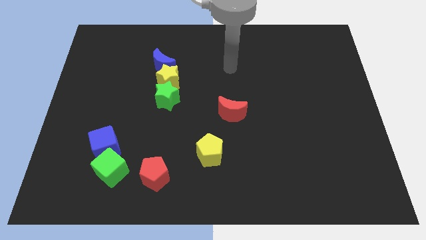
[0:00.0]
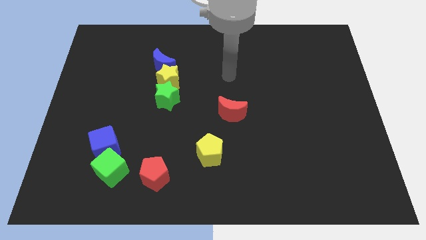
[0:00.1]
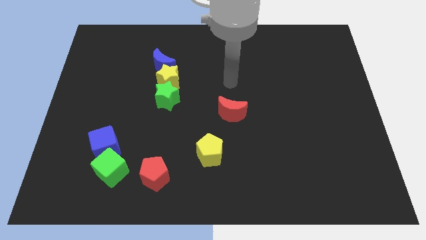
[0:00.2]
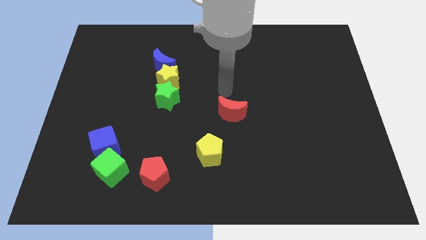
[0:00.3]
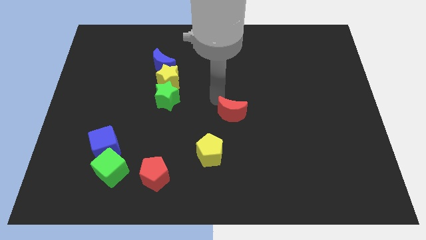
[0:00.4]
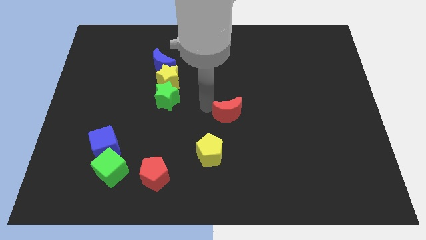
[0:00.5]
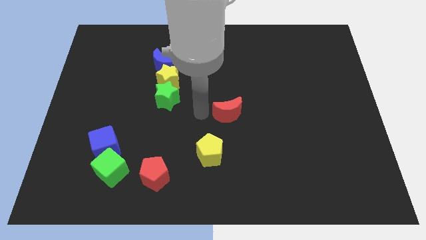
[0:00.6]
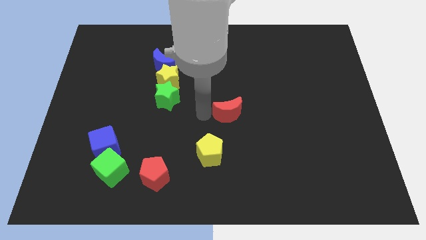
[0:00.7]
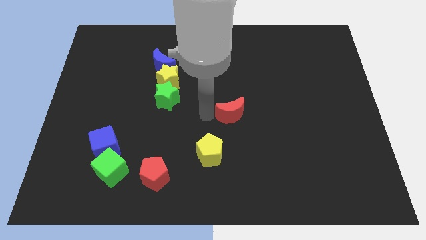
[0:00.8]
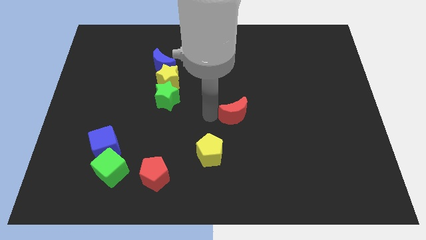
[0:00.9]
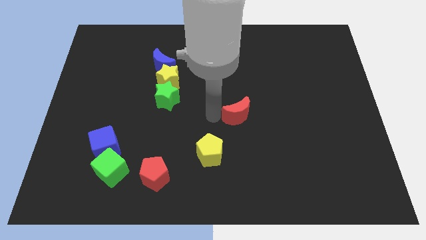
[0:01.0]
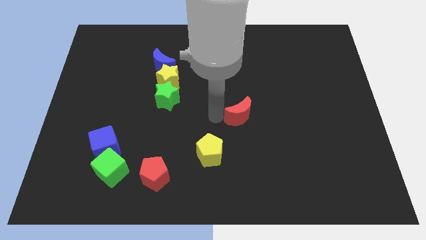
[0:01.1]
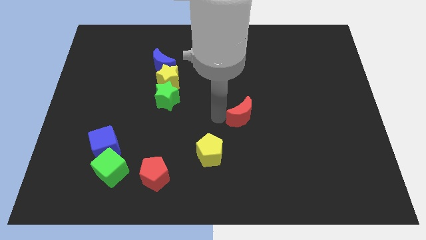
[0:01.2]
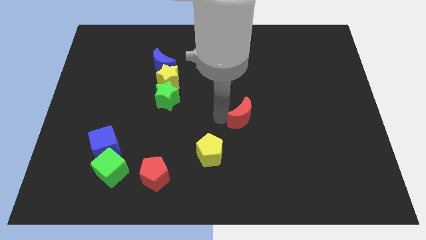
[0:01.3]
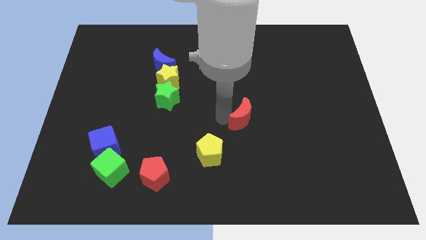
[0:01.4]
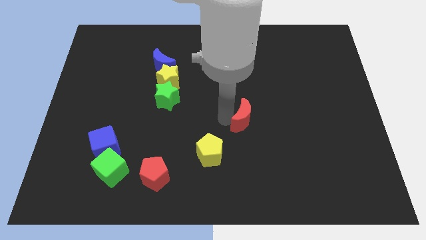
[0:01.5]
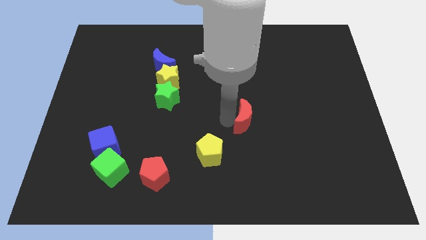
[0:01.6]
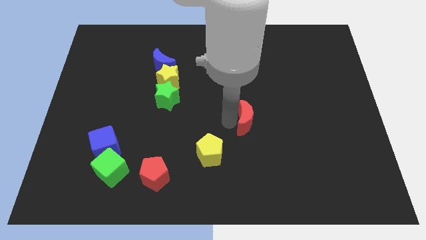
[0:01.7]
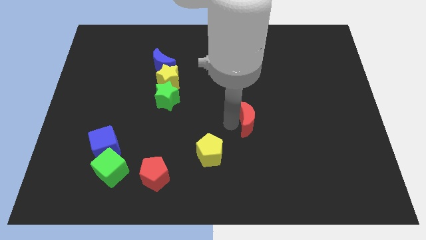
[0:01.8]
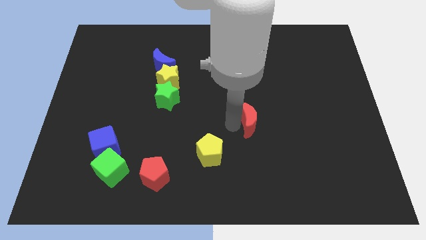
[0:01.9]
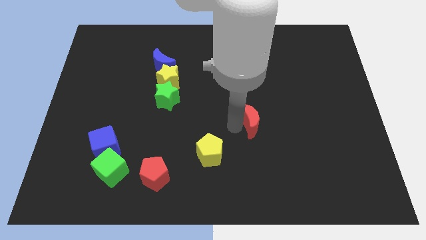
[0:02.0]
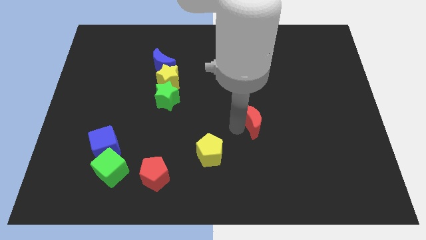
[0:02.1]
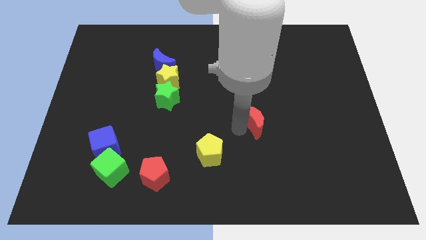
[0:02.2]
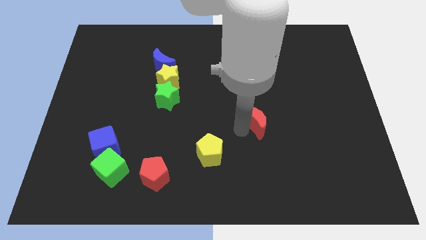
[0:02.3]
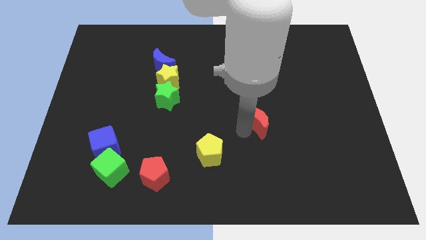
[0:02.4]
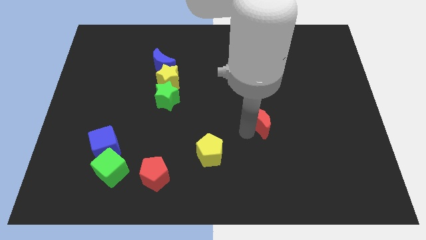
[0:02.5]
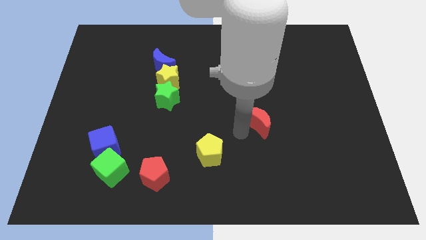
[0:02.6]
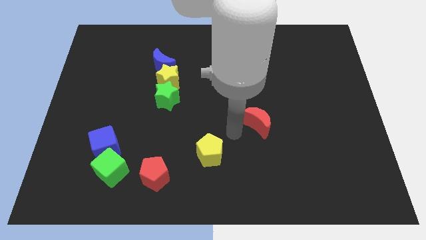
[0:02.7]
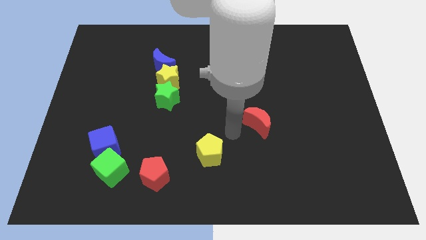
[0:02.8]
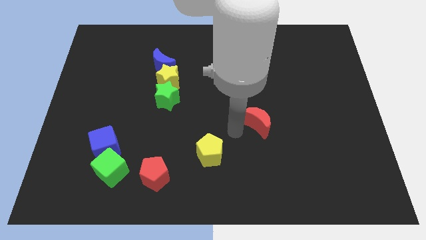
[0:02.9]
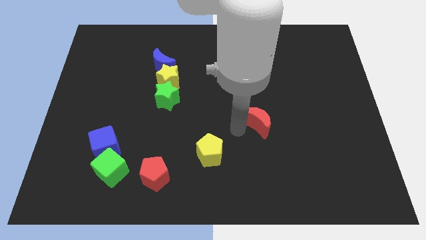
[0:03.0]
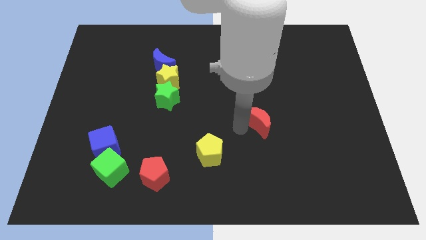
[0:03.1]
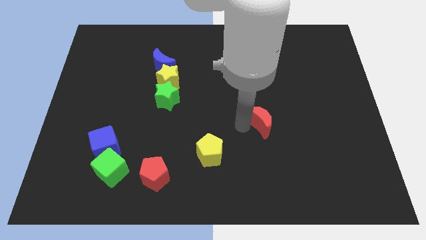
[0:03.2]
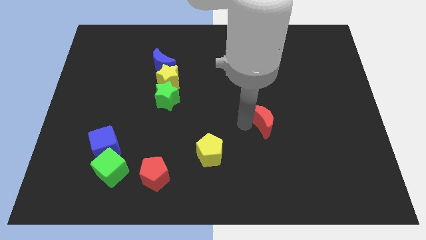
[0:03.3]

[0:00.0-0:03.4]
slightly move the red moon right

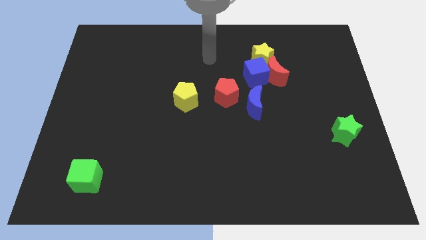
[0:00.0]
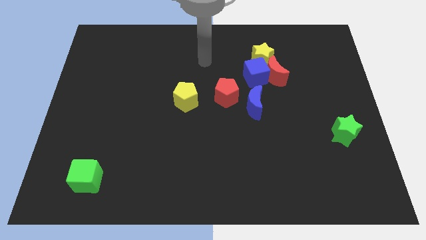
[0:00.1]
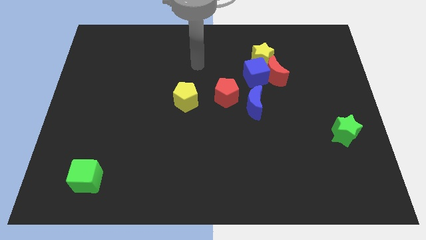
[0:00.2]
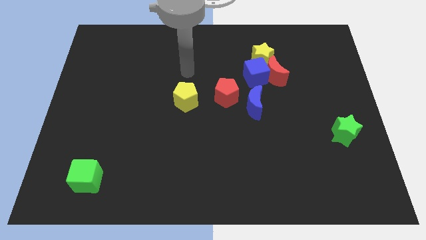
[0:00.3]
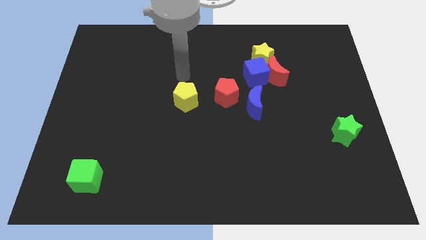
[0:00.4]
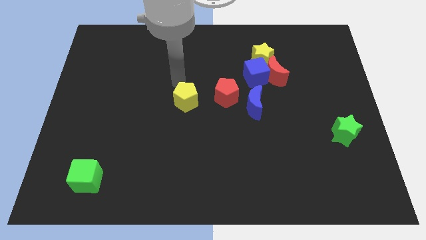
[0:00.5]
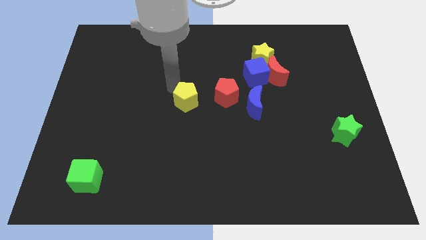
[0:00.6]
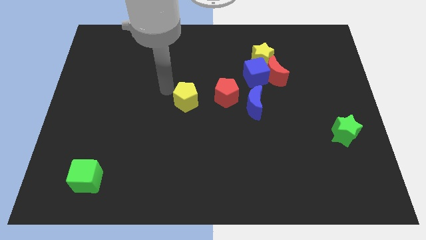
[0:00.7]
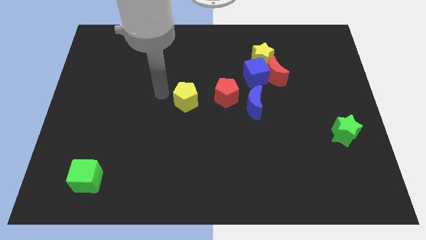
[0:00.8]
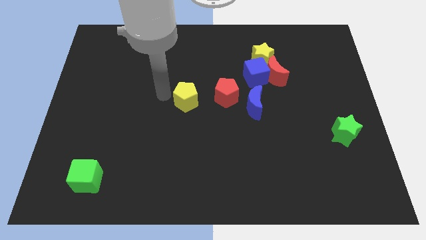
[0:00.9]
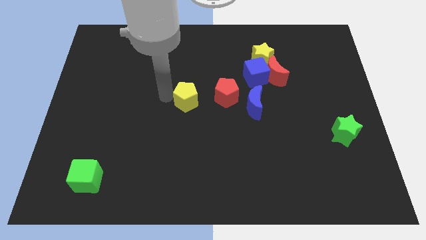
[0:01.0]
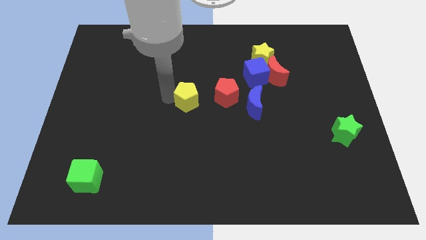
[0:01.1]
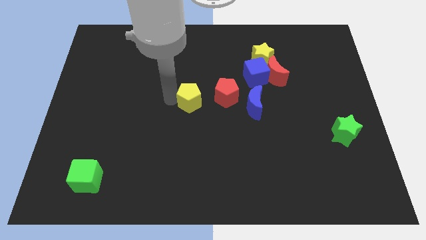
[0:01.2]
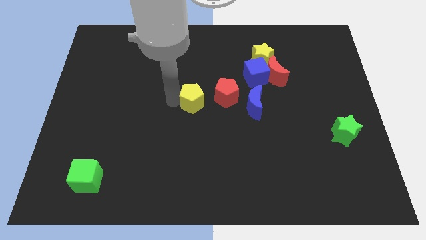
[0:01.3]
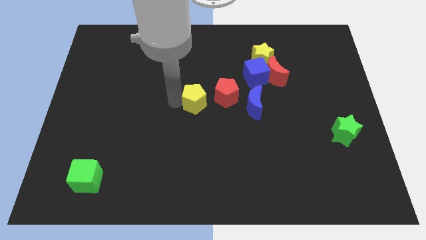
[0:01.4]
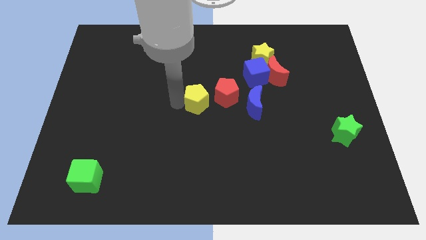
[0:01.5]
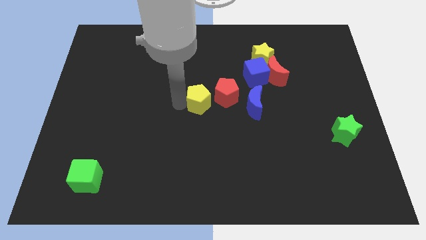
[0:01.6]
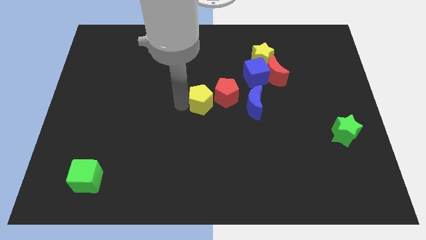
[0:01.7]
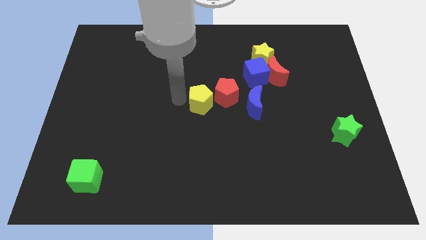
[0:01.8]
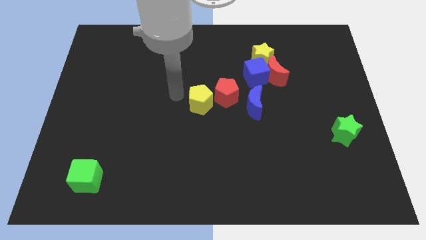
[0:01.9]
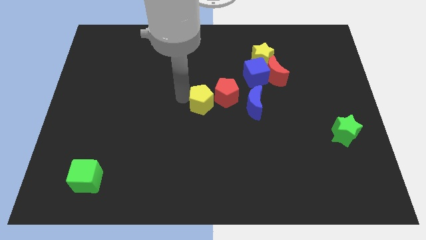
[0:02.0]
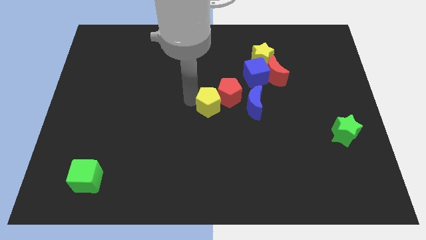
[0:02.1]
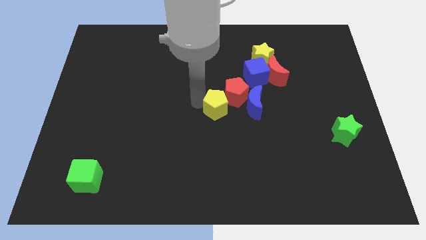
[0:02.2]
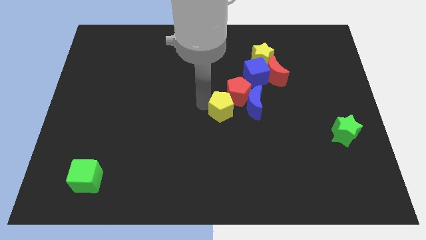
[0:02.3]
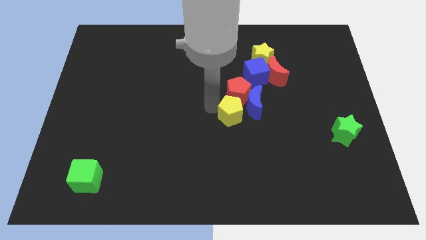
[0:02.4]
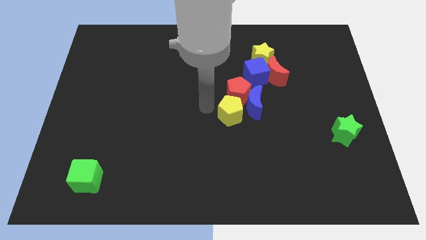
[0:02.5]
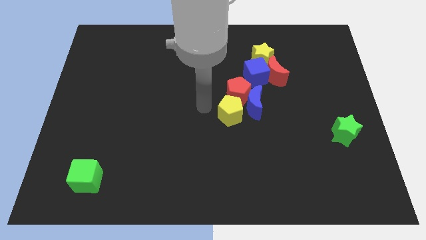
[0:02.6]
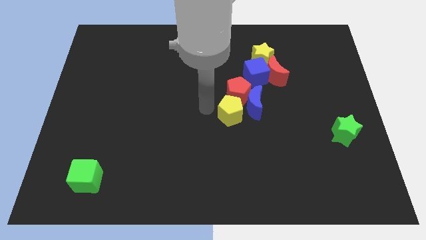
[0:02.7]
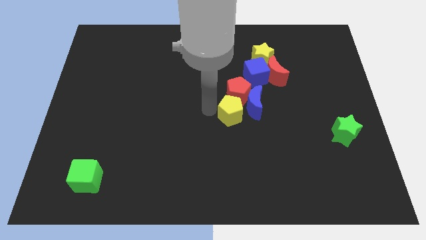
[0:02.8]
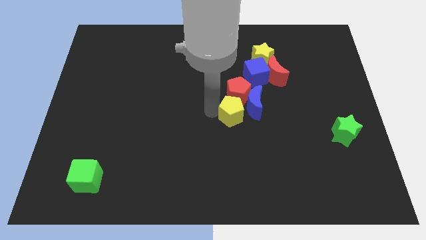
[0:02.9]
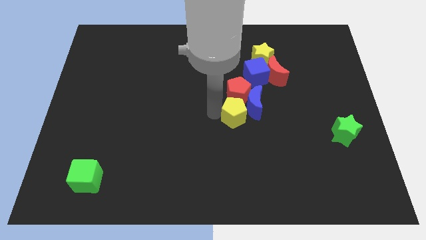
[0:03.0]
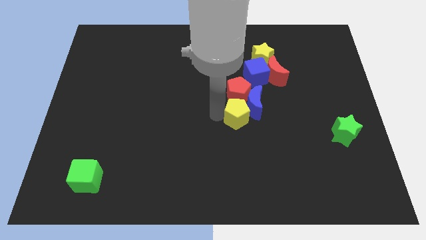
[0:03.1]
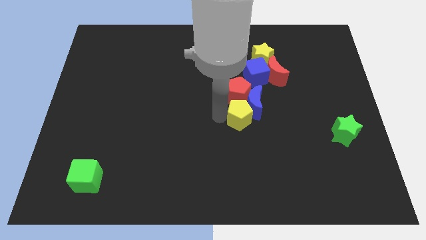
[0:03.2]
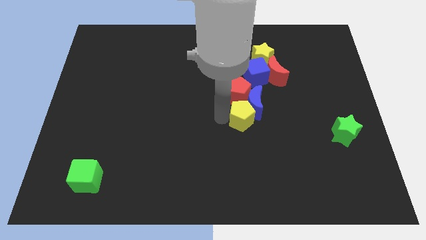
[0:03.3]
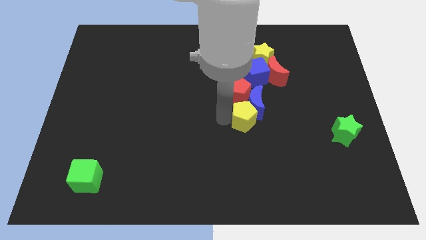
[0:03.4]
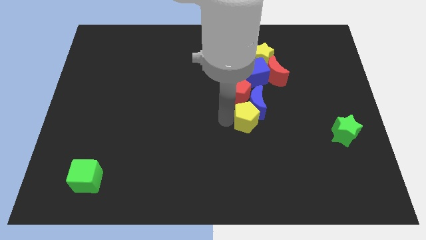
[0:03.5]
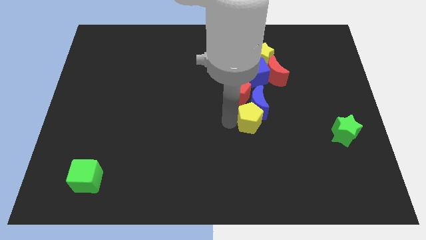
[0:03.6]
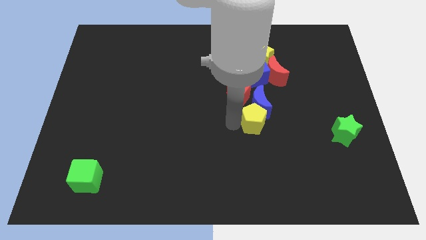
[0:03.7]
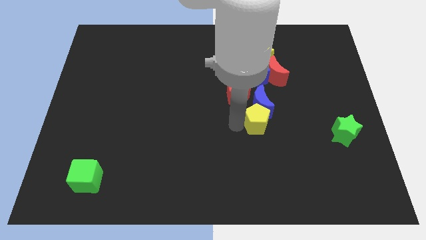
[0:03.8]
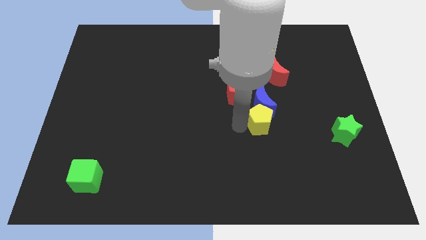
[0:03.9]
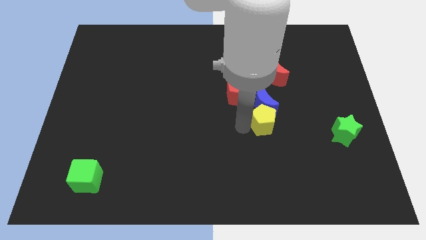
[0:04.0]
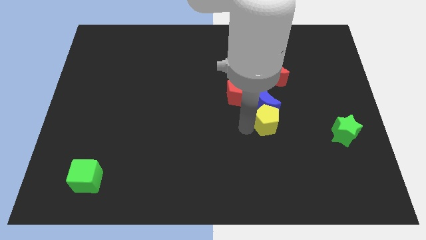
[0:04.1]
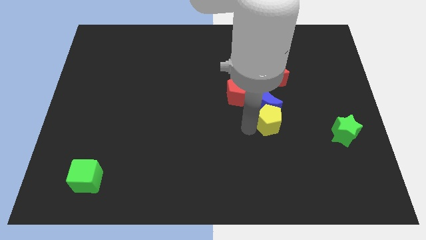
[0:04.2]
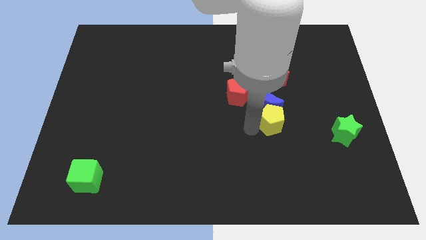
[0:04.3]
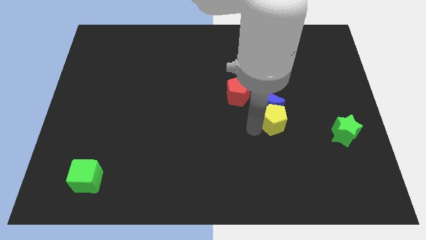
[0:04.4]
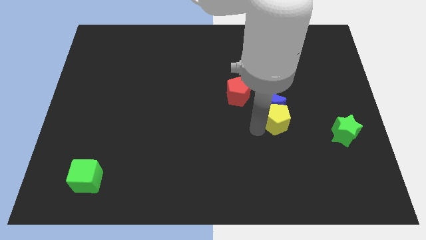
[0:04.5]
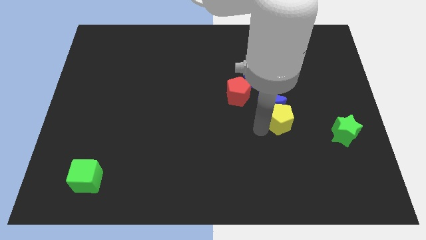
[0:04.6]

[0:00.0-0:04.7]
push the yellow pentagon right

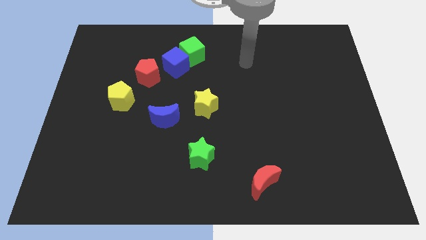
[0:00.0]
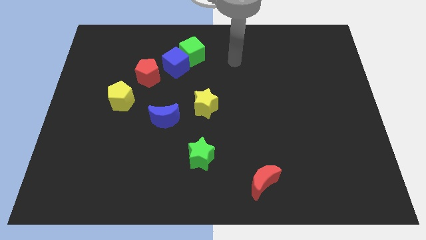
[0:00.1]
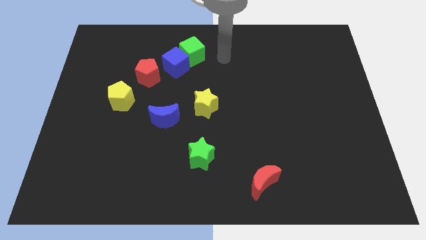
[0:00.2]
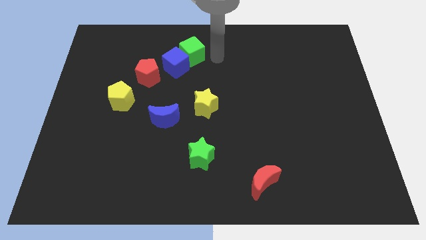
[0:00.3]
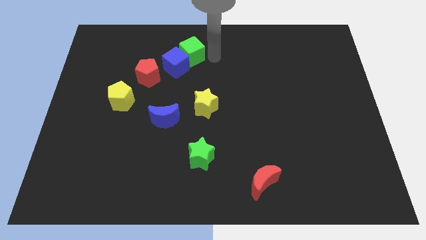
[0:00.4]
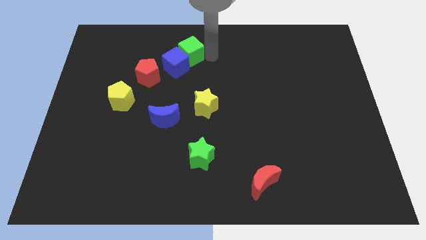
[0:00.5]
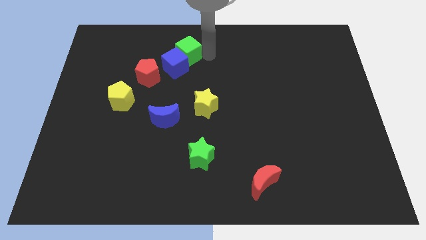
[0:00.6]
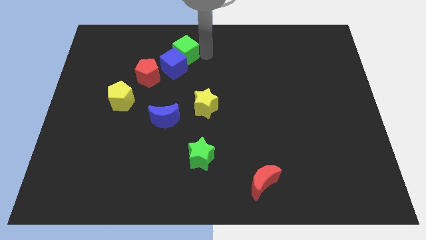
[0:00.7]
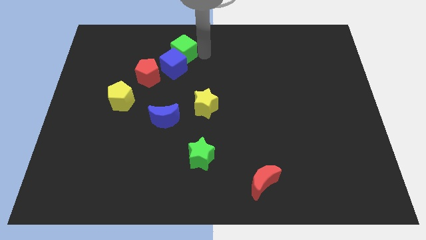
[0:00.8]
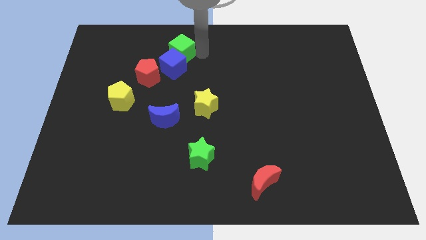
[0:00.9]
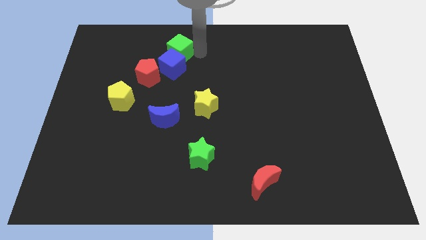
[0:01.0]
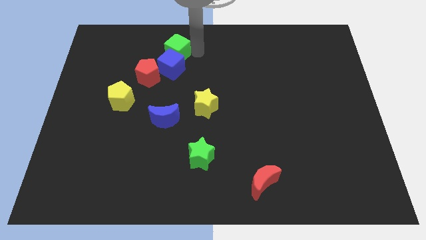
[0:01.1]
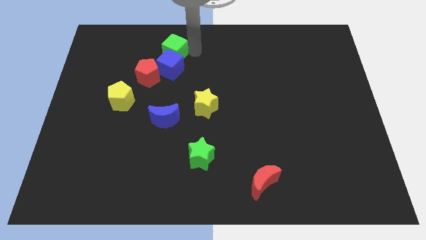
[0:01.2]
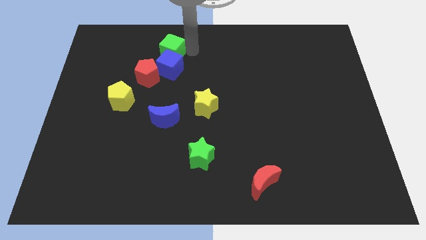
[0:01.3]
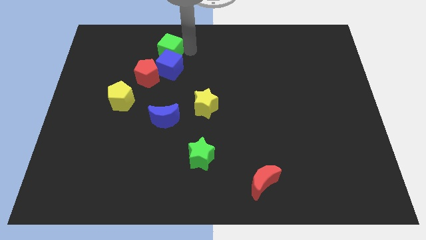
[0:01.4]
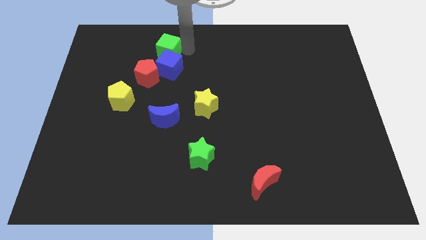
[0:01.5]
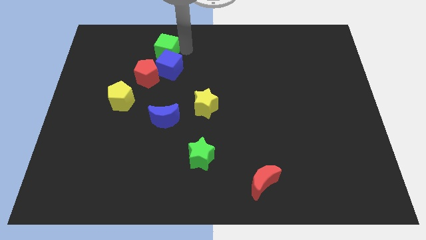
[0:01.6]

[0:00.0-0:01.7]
slightly push the green cube left
